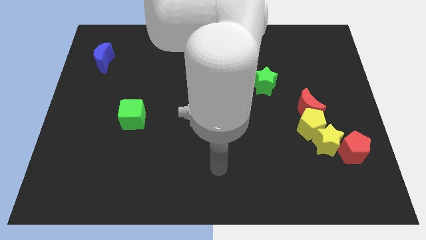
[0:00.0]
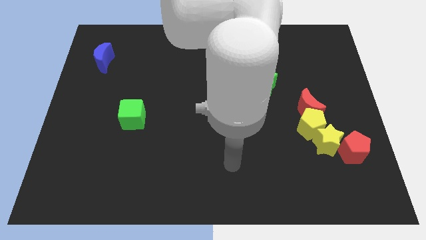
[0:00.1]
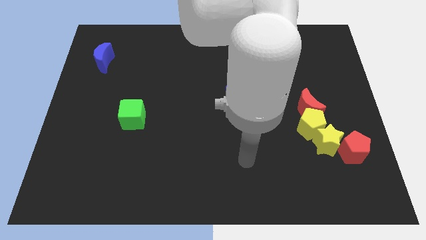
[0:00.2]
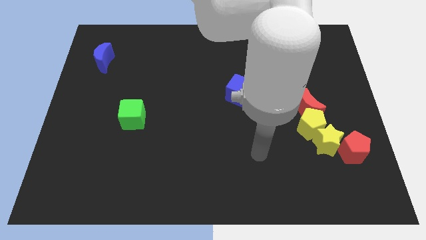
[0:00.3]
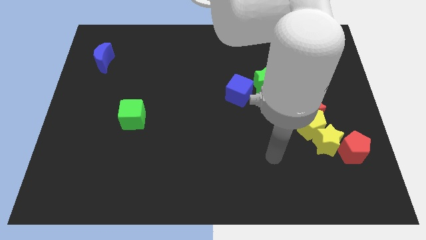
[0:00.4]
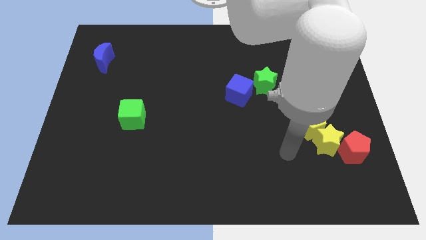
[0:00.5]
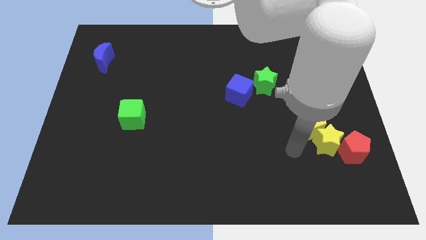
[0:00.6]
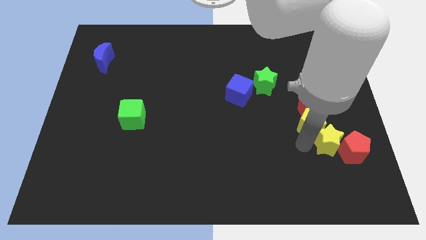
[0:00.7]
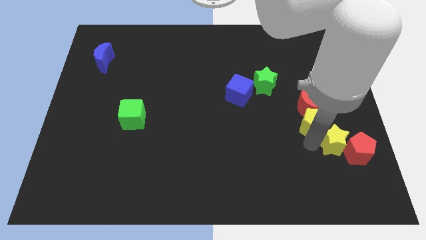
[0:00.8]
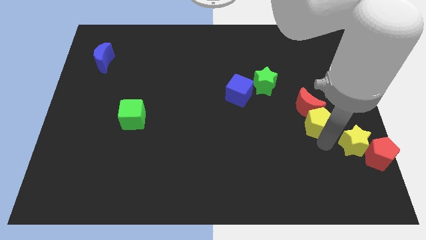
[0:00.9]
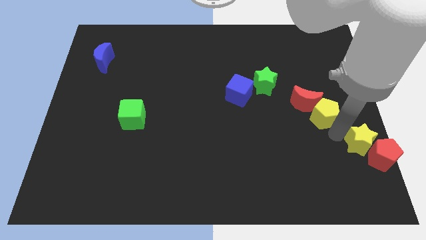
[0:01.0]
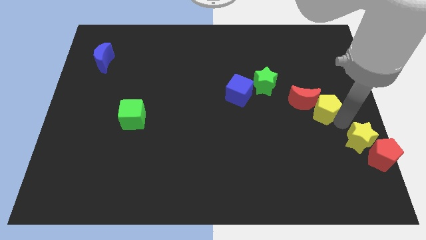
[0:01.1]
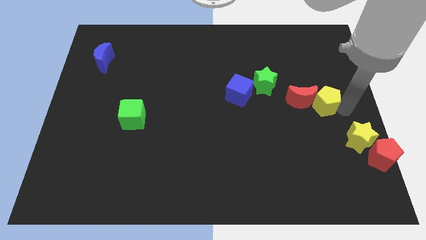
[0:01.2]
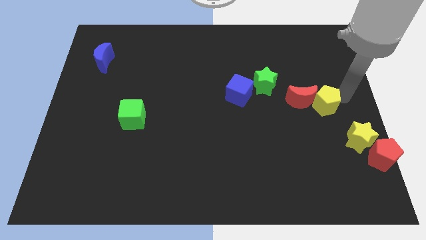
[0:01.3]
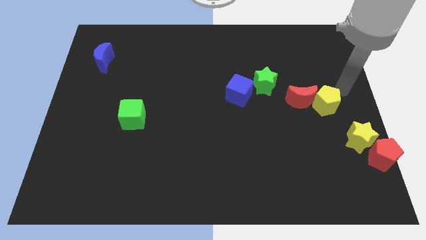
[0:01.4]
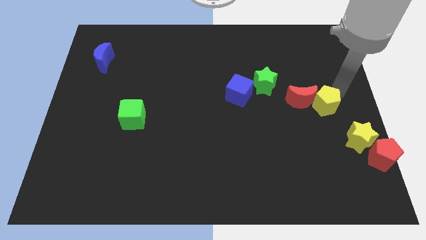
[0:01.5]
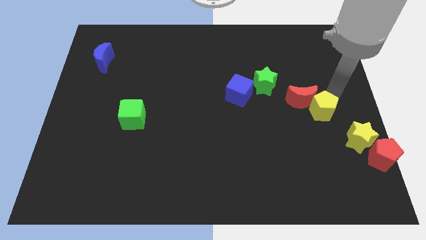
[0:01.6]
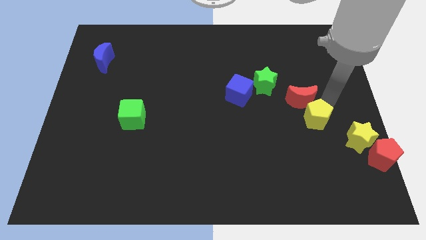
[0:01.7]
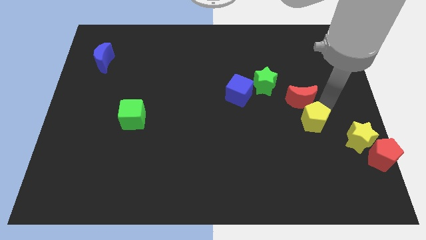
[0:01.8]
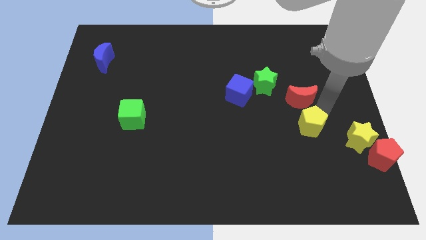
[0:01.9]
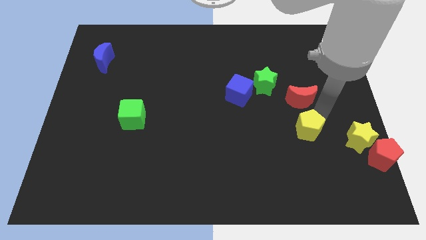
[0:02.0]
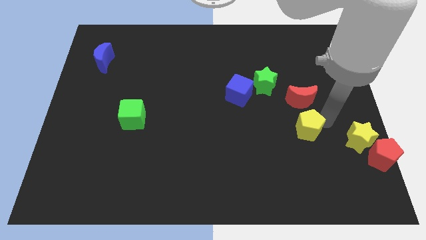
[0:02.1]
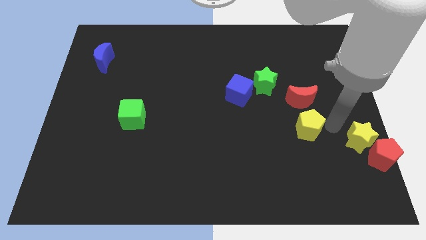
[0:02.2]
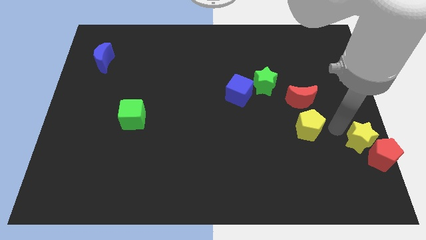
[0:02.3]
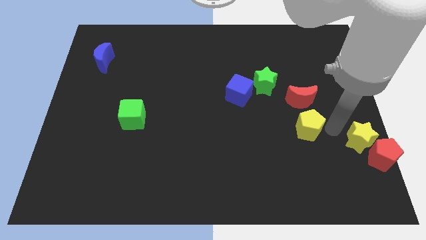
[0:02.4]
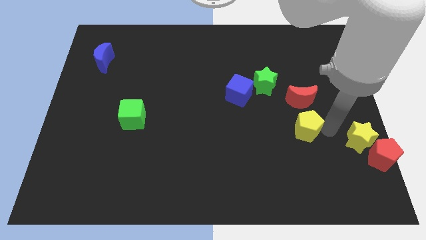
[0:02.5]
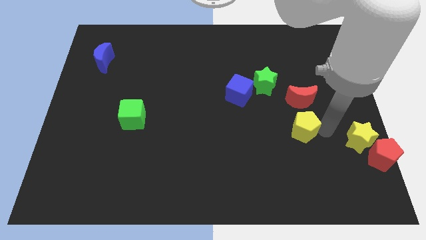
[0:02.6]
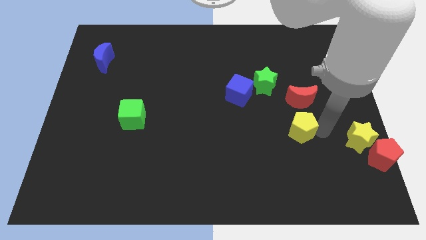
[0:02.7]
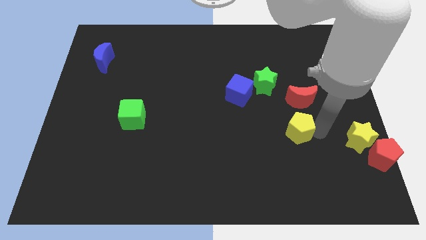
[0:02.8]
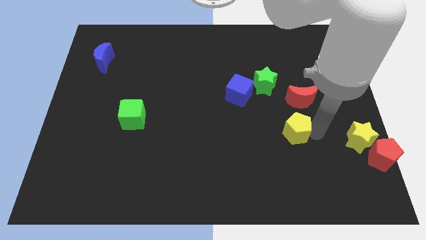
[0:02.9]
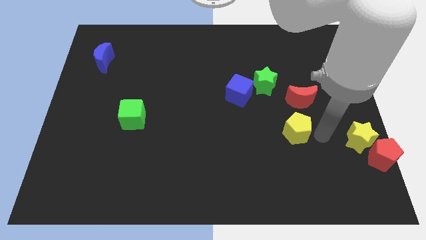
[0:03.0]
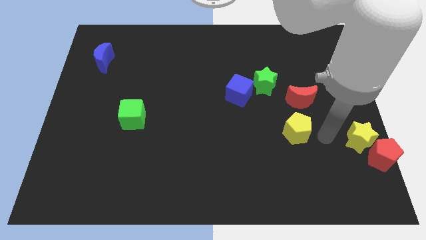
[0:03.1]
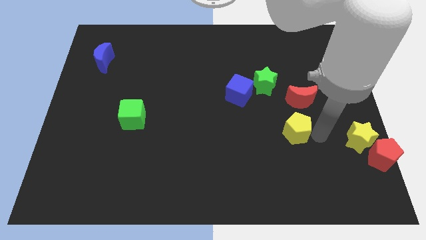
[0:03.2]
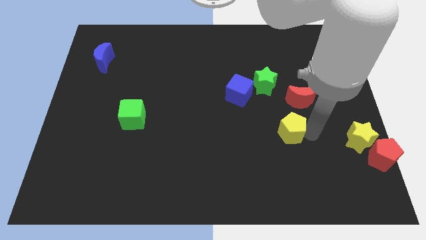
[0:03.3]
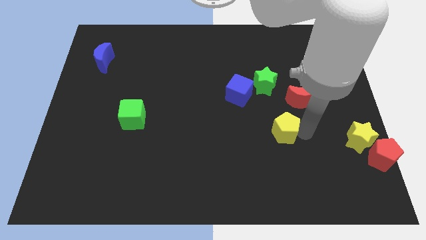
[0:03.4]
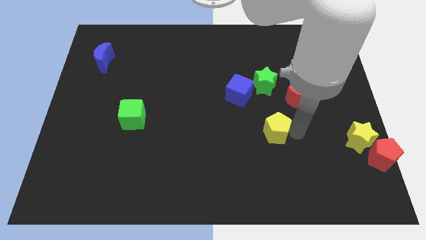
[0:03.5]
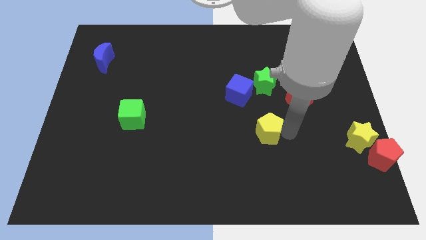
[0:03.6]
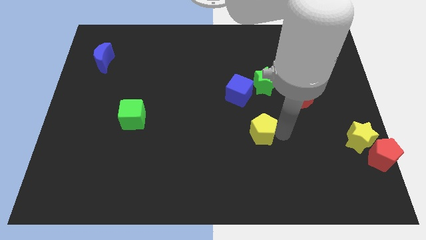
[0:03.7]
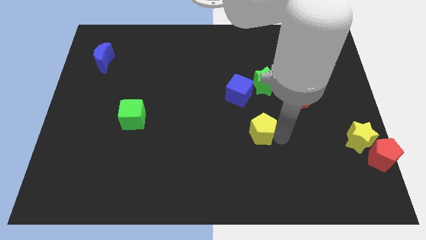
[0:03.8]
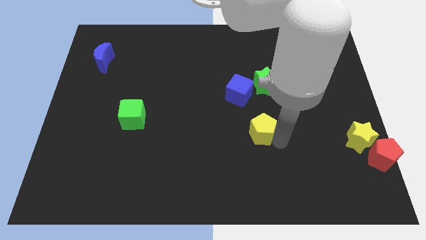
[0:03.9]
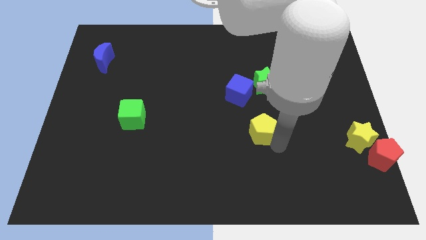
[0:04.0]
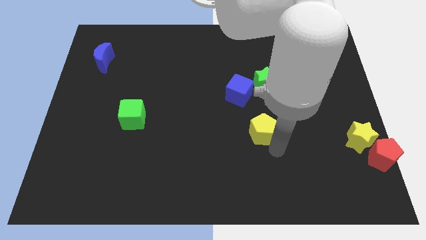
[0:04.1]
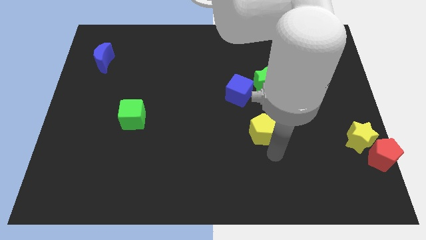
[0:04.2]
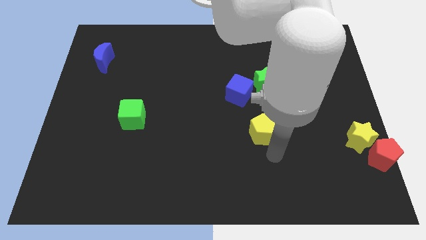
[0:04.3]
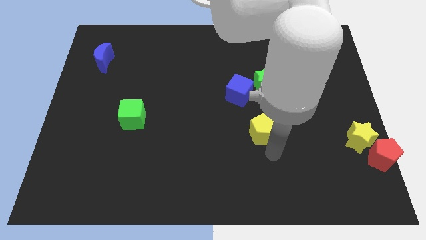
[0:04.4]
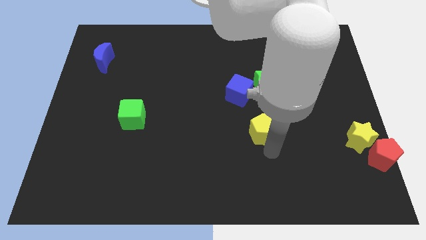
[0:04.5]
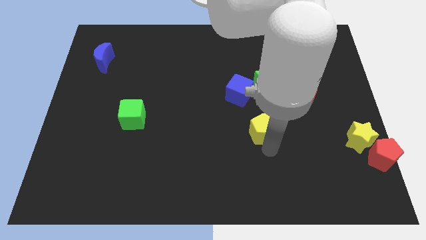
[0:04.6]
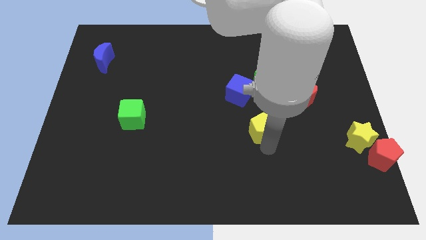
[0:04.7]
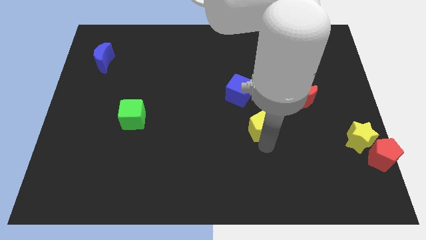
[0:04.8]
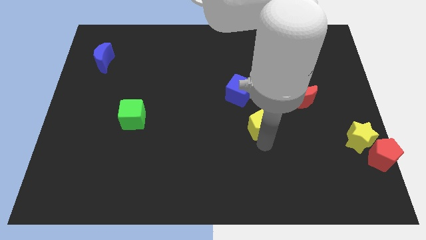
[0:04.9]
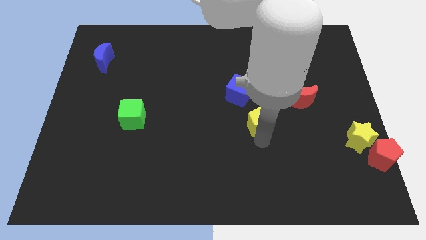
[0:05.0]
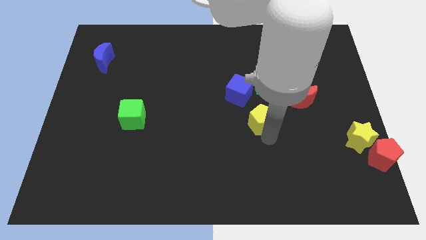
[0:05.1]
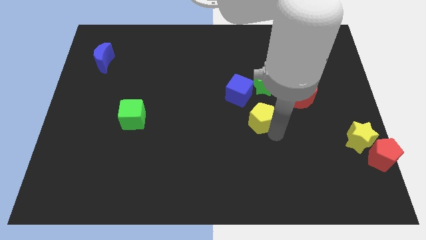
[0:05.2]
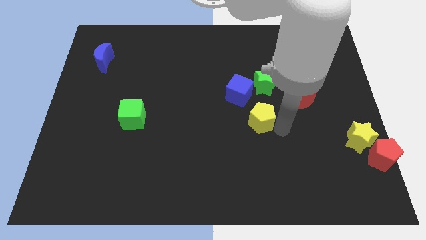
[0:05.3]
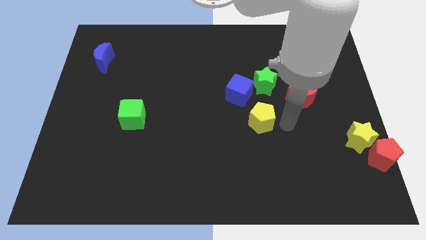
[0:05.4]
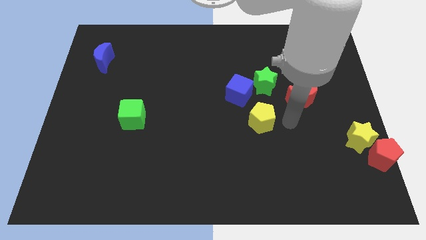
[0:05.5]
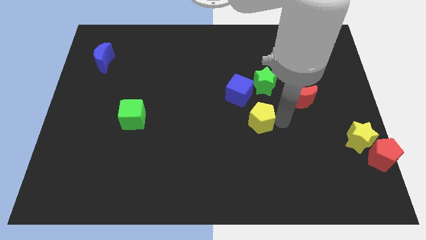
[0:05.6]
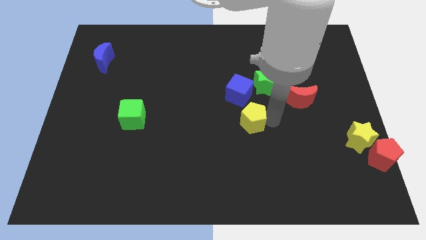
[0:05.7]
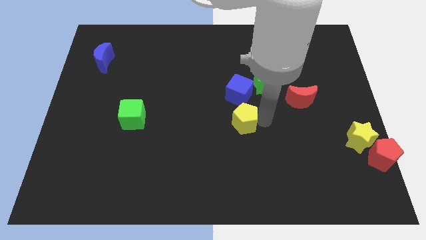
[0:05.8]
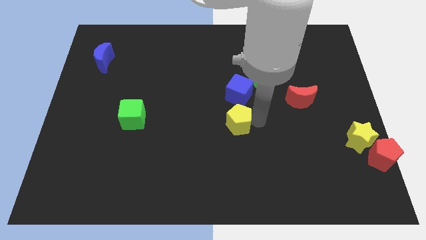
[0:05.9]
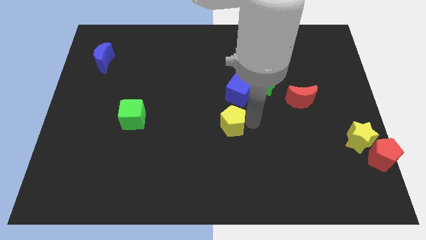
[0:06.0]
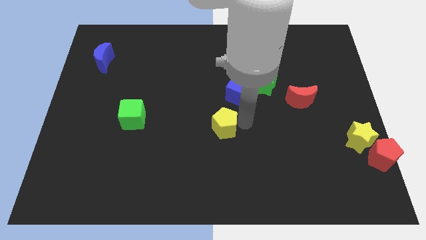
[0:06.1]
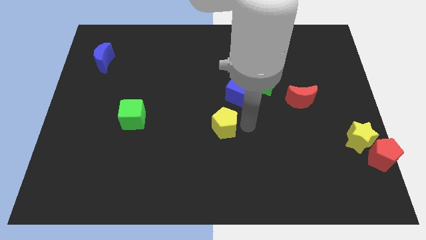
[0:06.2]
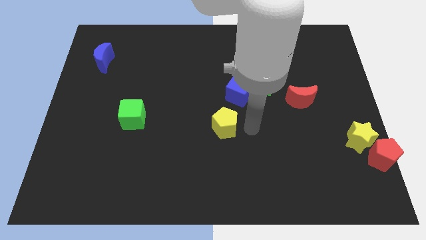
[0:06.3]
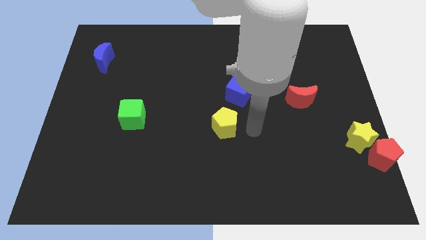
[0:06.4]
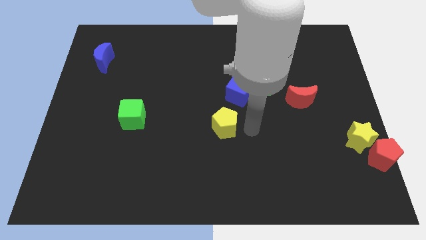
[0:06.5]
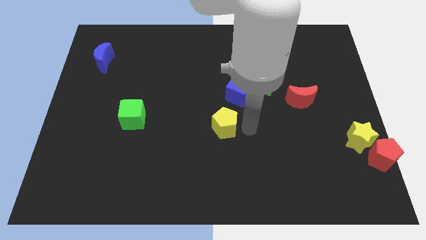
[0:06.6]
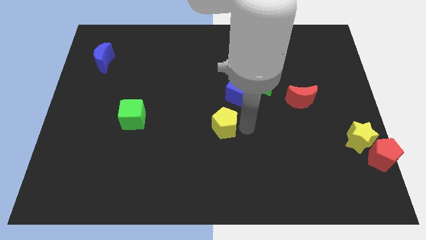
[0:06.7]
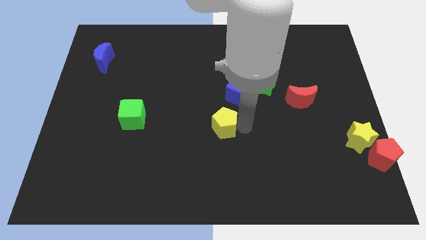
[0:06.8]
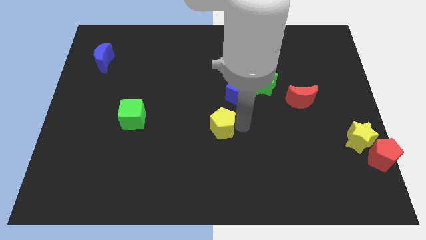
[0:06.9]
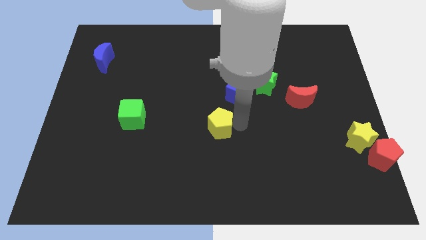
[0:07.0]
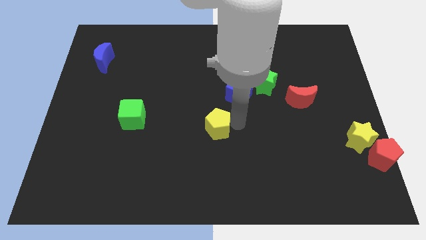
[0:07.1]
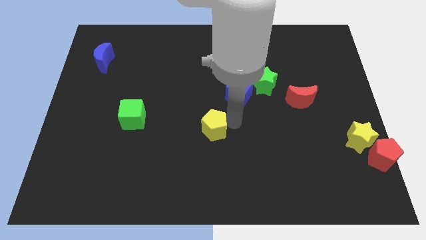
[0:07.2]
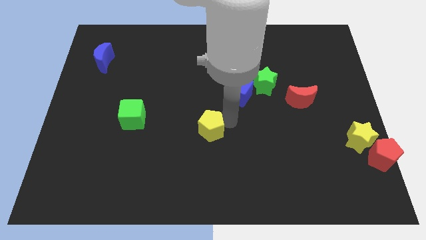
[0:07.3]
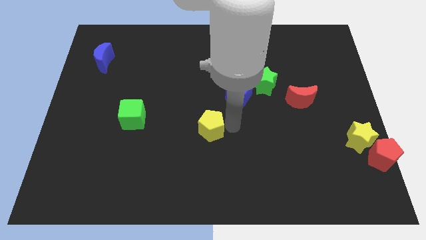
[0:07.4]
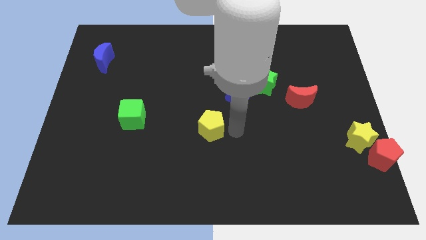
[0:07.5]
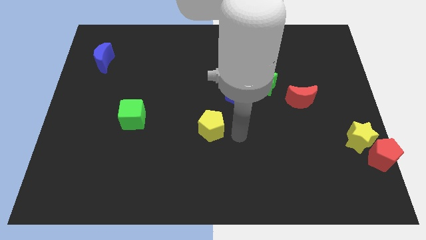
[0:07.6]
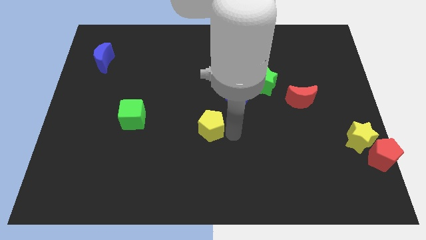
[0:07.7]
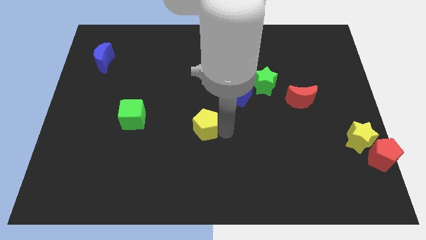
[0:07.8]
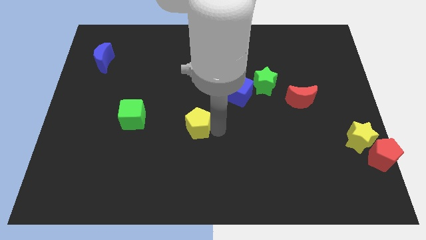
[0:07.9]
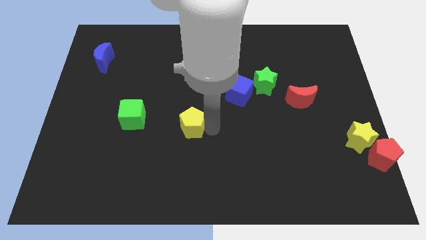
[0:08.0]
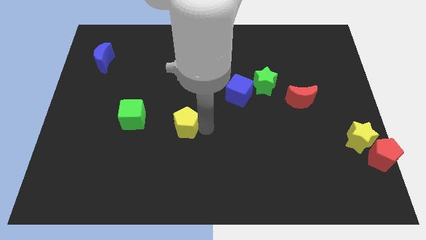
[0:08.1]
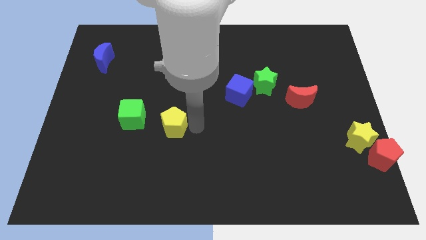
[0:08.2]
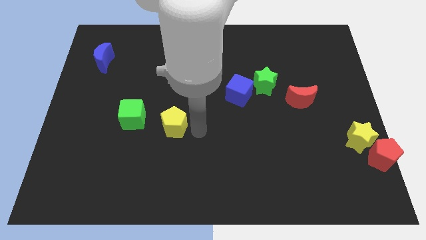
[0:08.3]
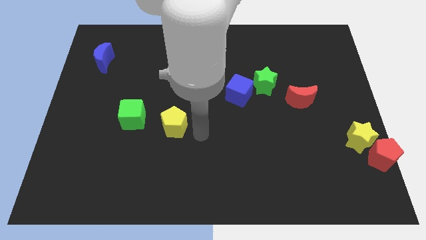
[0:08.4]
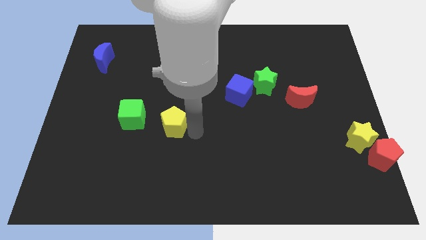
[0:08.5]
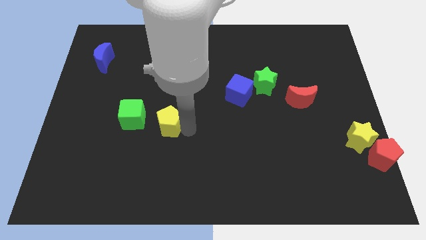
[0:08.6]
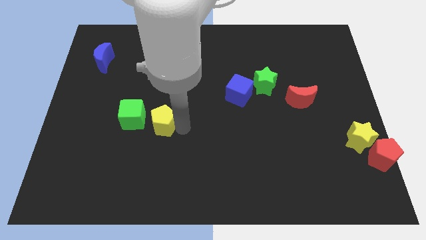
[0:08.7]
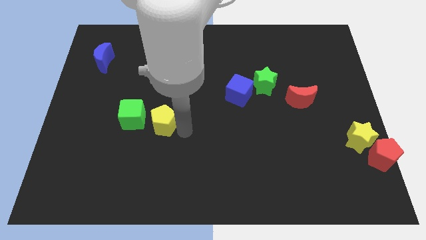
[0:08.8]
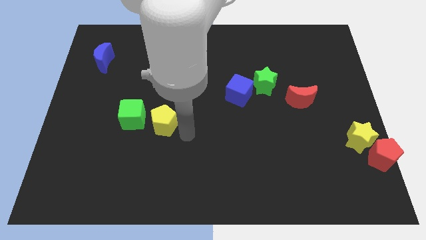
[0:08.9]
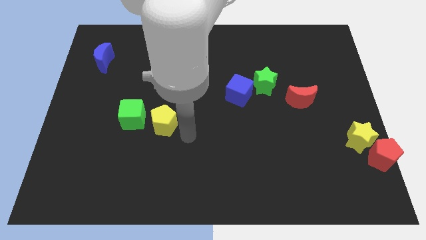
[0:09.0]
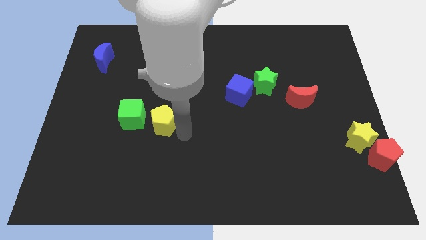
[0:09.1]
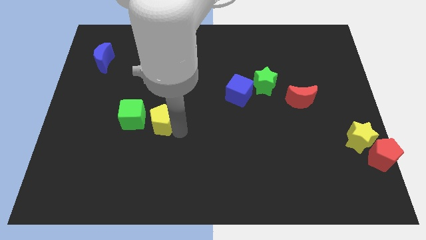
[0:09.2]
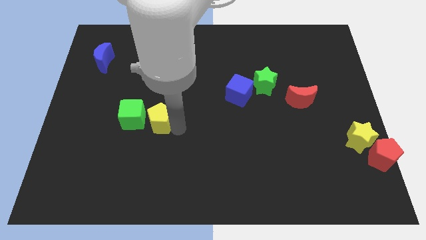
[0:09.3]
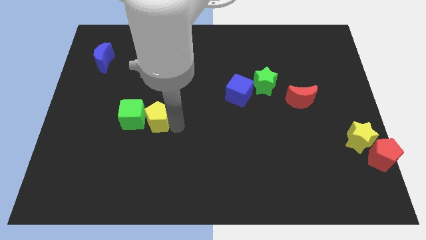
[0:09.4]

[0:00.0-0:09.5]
put the yellow pentagon to the green cube
